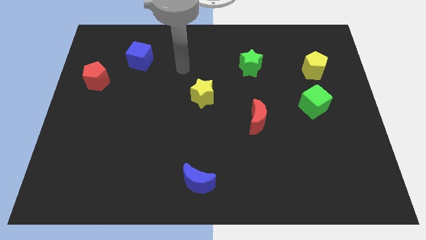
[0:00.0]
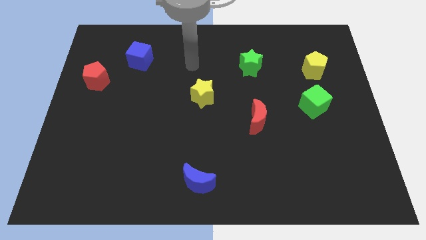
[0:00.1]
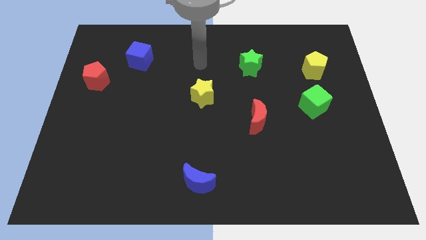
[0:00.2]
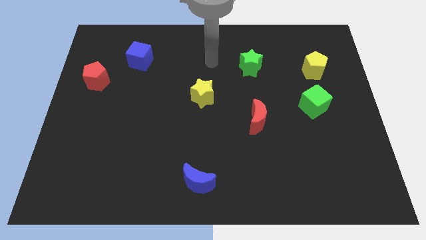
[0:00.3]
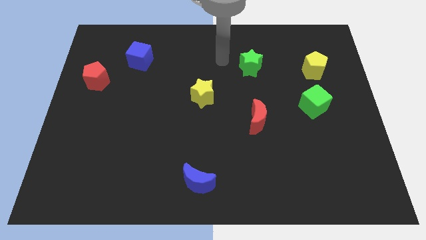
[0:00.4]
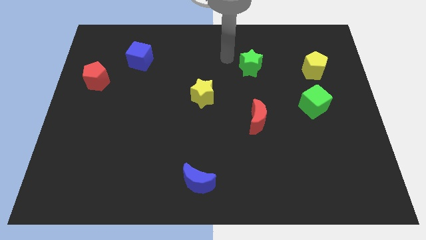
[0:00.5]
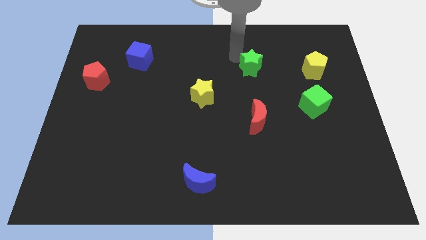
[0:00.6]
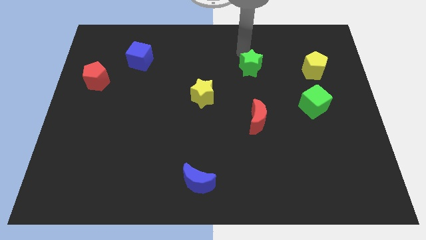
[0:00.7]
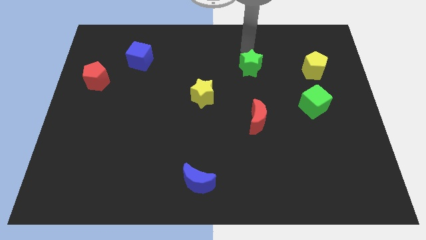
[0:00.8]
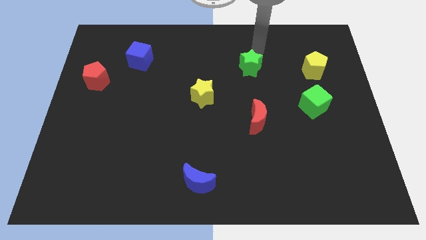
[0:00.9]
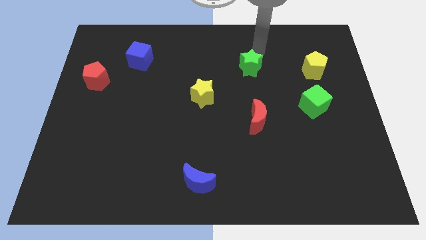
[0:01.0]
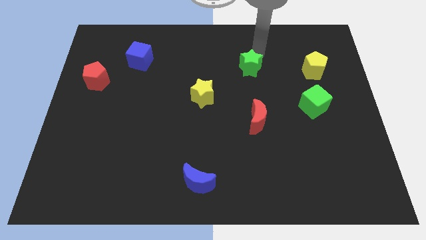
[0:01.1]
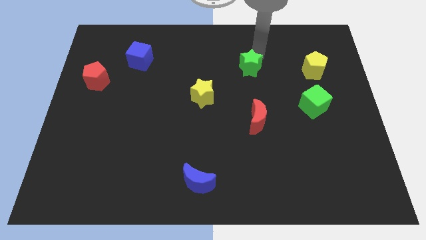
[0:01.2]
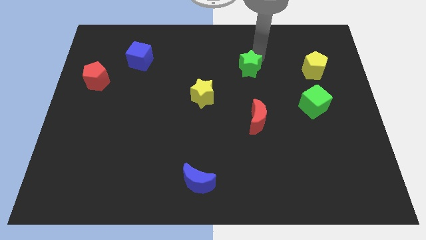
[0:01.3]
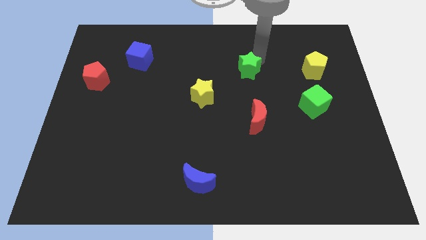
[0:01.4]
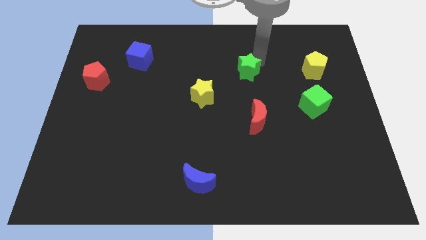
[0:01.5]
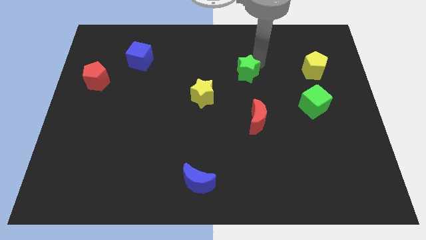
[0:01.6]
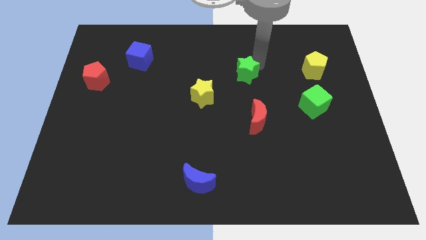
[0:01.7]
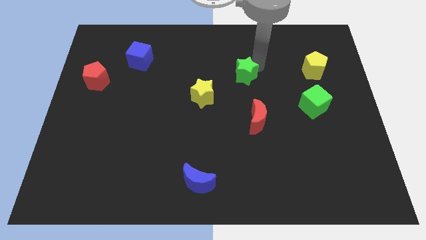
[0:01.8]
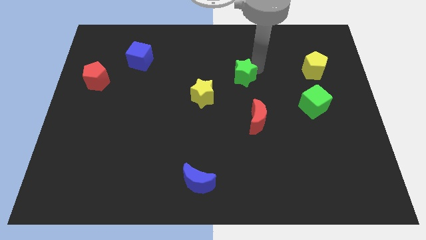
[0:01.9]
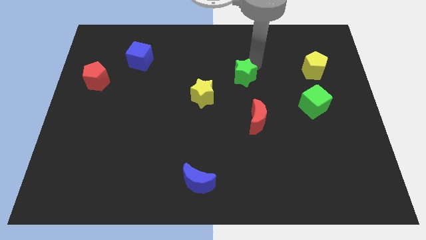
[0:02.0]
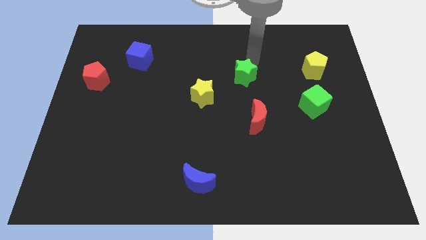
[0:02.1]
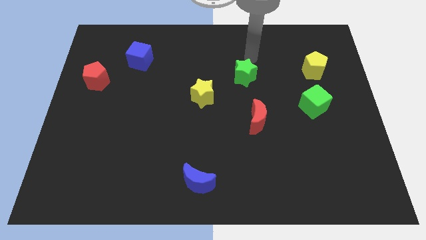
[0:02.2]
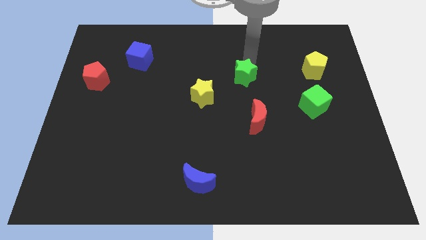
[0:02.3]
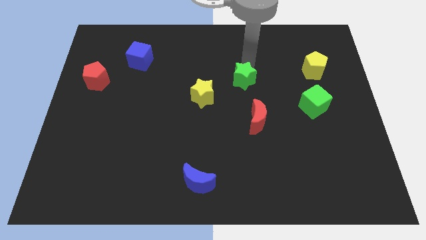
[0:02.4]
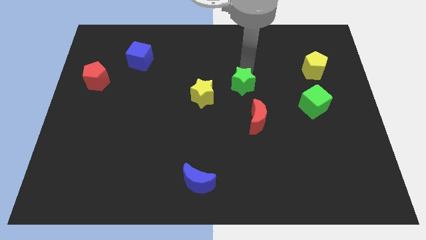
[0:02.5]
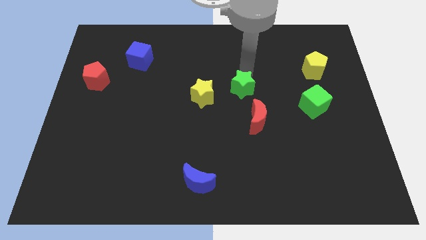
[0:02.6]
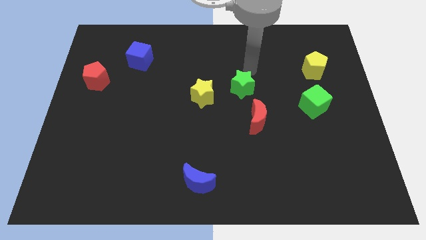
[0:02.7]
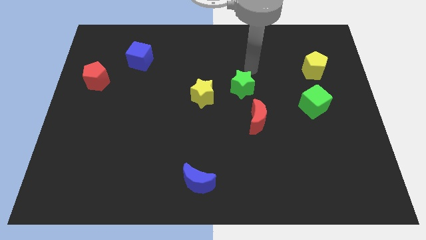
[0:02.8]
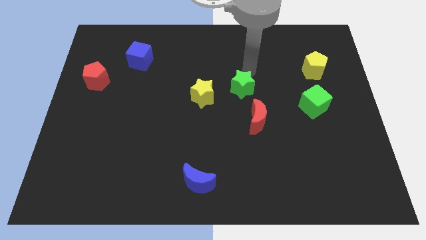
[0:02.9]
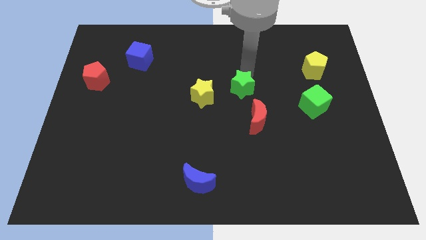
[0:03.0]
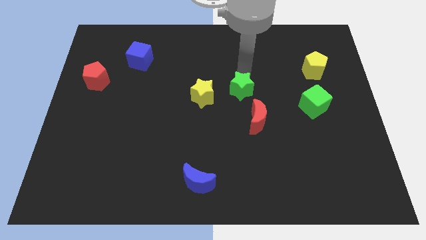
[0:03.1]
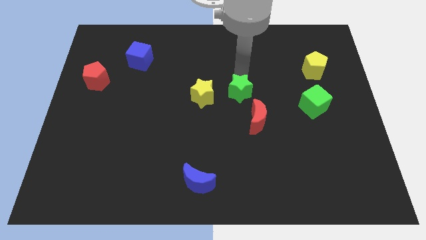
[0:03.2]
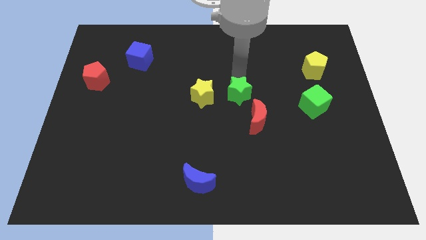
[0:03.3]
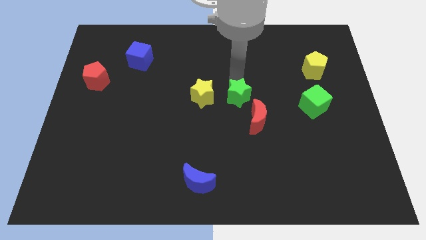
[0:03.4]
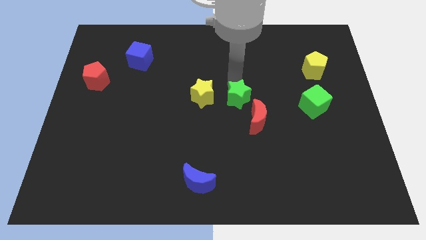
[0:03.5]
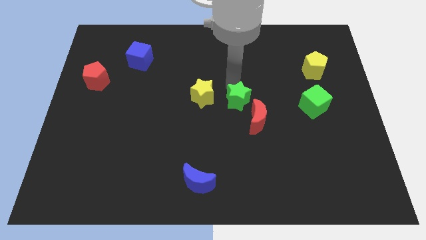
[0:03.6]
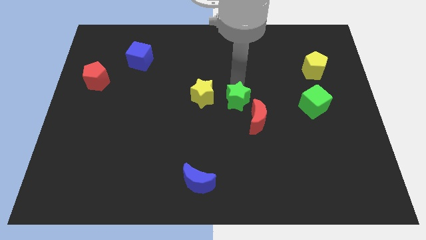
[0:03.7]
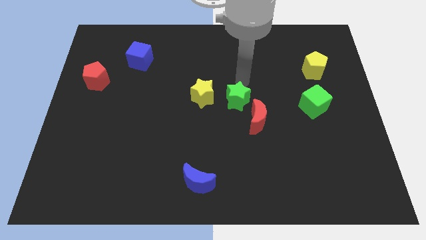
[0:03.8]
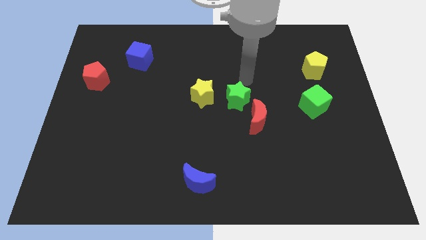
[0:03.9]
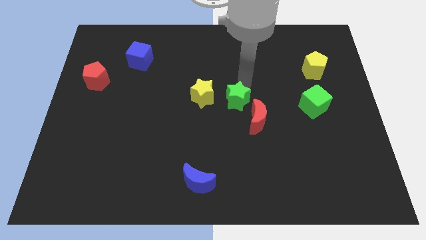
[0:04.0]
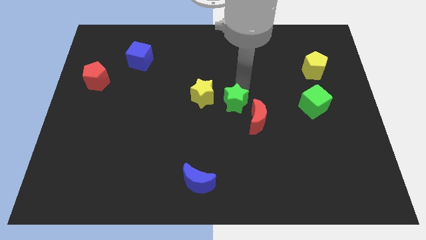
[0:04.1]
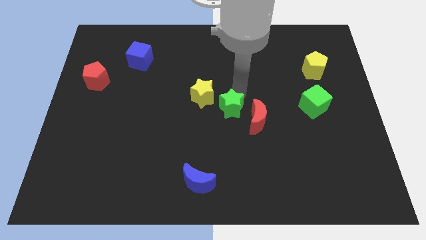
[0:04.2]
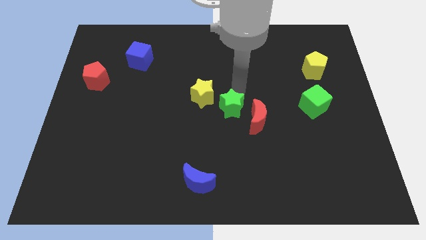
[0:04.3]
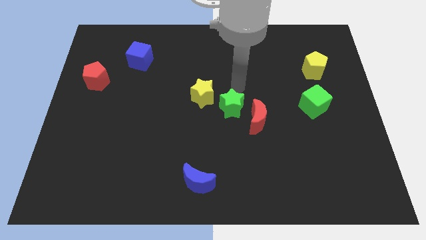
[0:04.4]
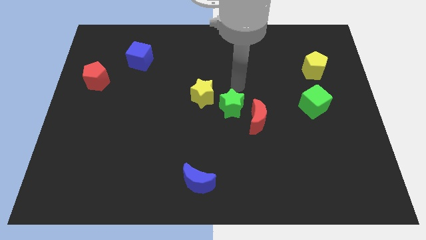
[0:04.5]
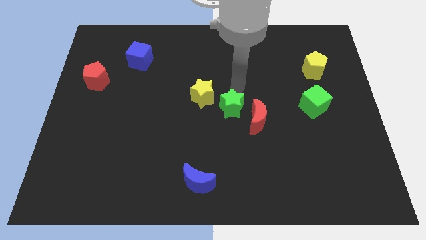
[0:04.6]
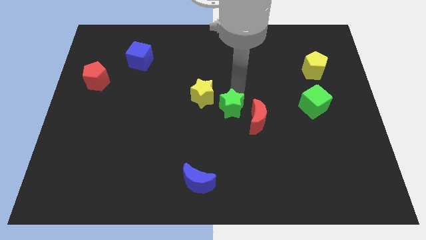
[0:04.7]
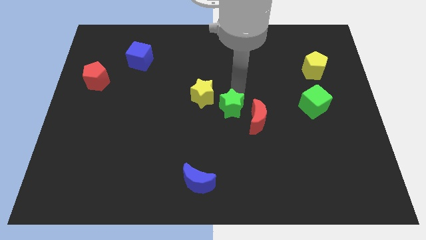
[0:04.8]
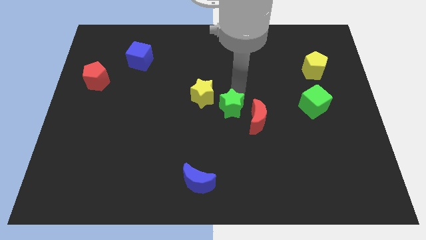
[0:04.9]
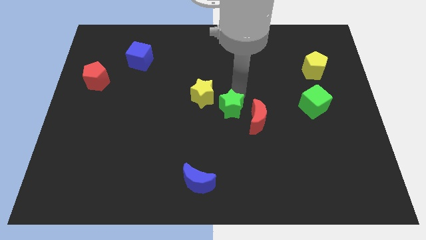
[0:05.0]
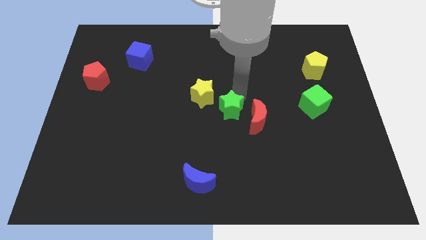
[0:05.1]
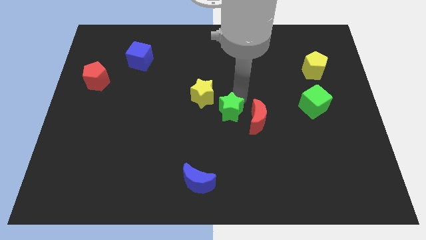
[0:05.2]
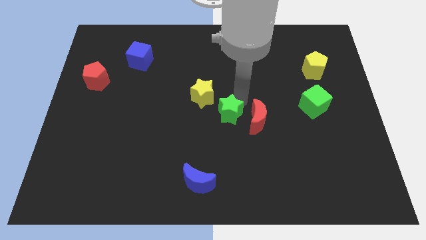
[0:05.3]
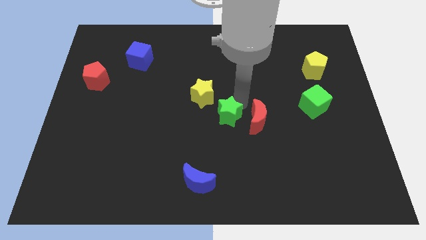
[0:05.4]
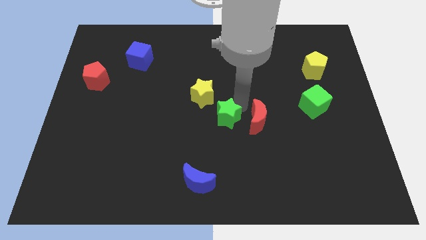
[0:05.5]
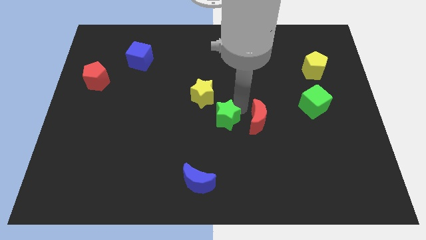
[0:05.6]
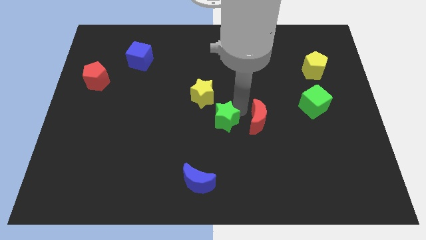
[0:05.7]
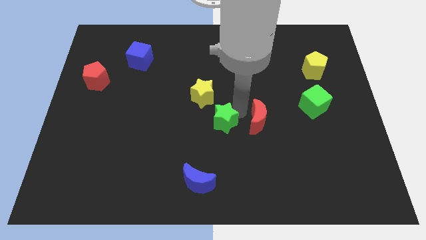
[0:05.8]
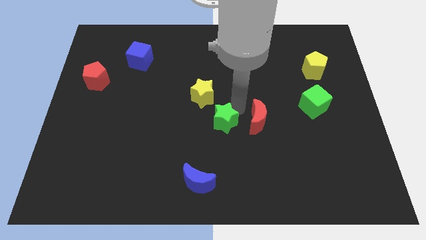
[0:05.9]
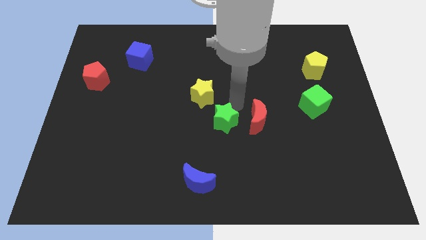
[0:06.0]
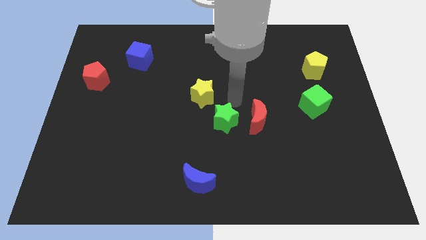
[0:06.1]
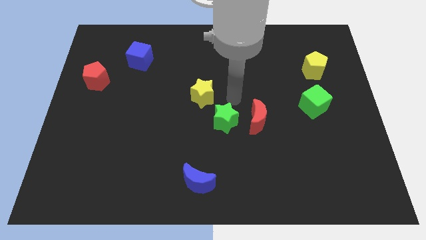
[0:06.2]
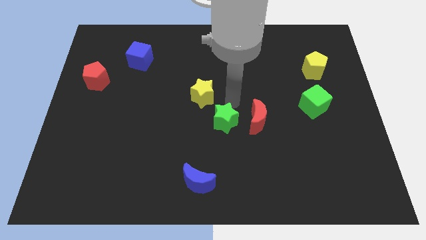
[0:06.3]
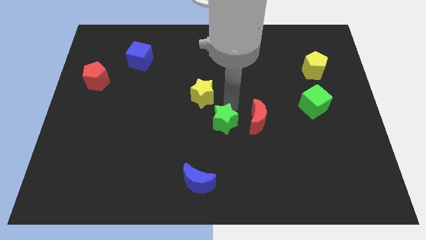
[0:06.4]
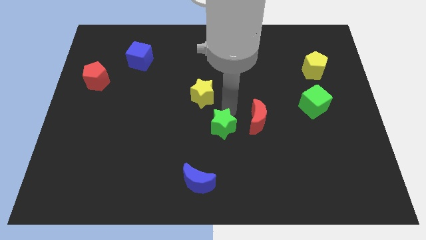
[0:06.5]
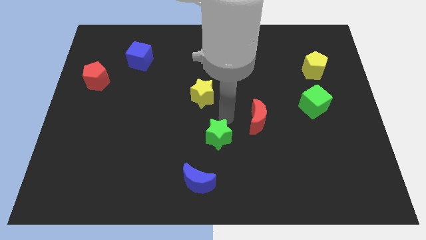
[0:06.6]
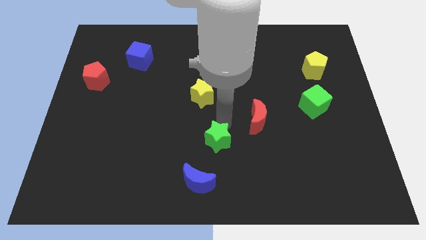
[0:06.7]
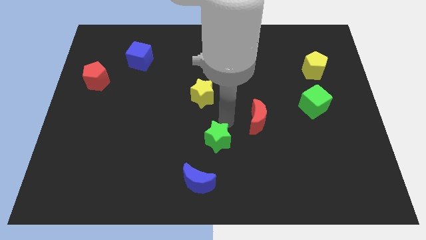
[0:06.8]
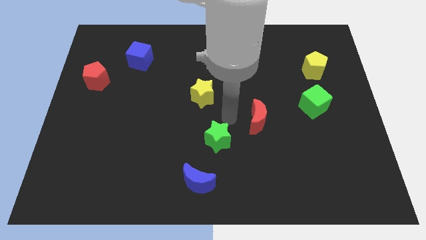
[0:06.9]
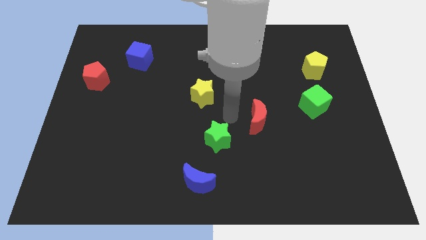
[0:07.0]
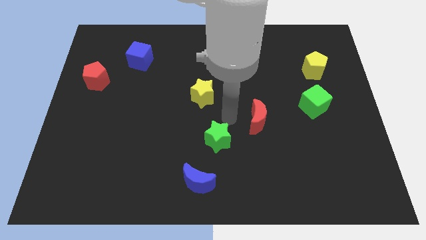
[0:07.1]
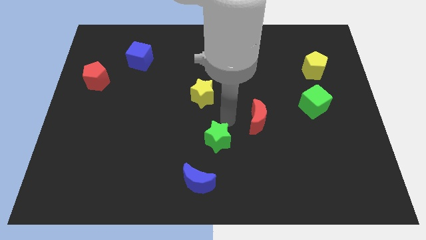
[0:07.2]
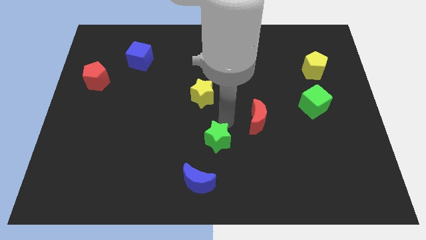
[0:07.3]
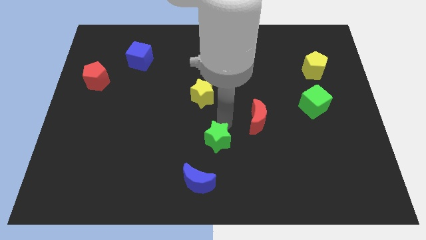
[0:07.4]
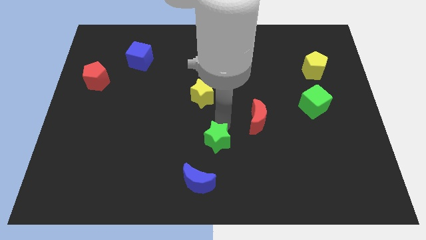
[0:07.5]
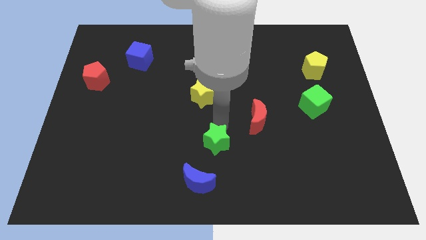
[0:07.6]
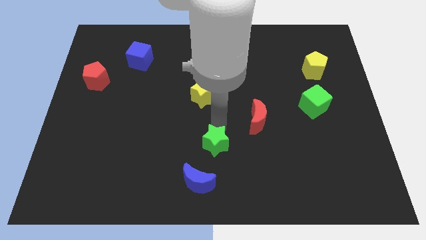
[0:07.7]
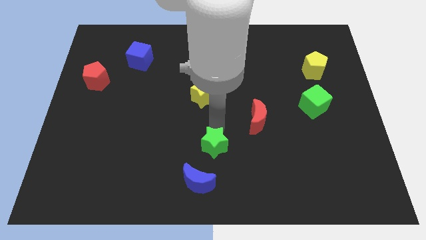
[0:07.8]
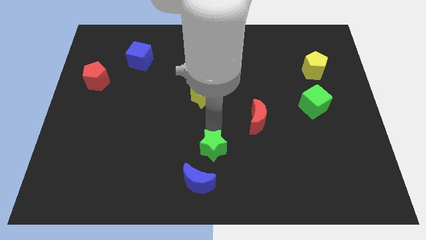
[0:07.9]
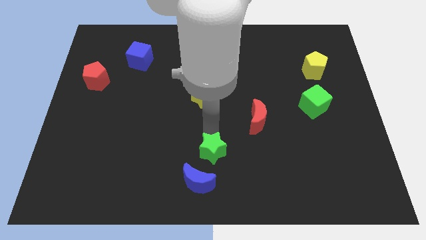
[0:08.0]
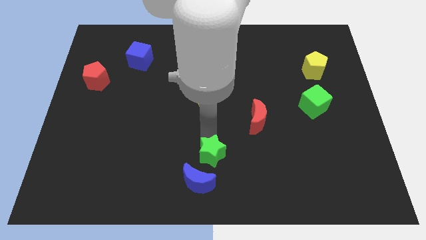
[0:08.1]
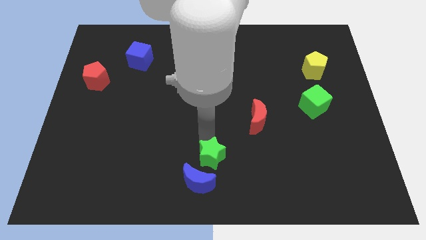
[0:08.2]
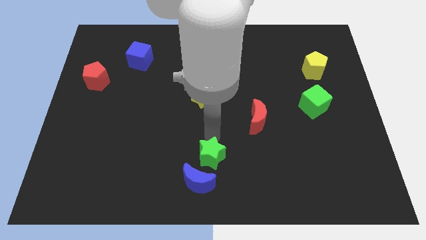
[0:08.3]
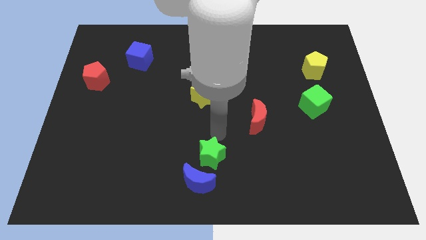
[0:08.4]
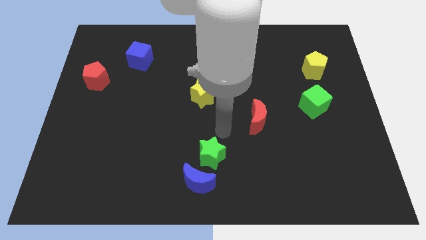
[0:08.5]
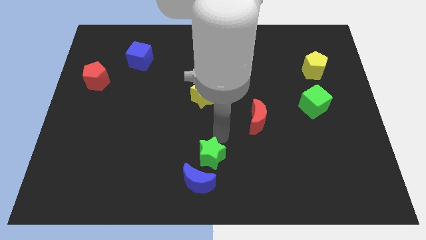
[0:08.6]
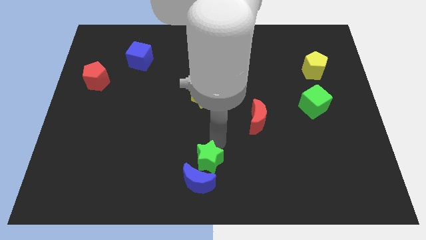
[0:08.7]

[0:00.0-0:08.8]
put the green star close to the blue moon
